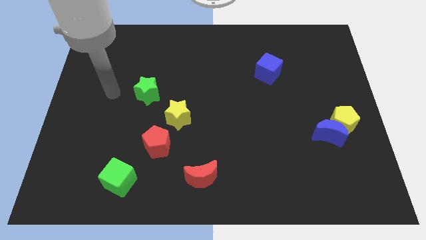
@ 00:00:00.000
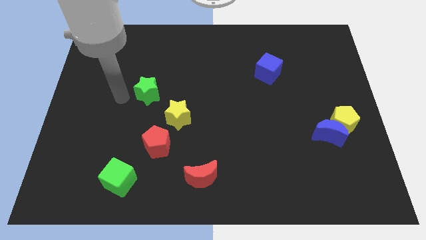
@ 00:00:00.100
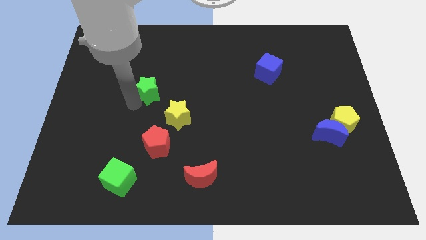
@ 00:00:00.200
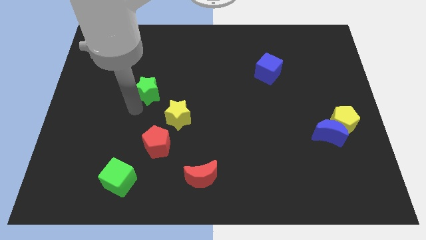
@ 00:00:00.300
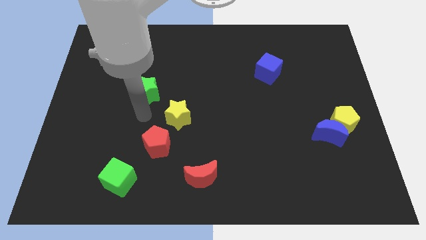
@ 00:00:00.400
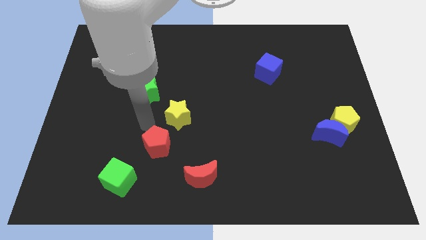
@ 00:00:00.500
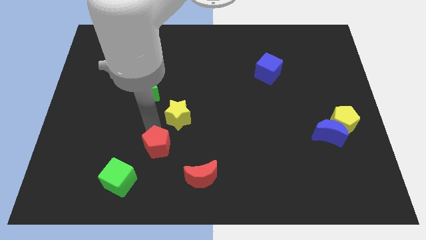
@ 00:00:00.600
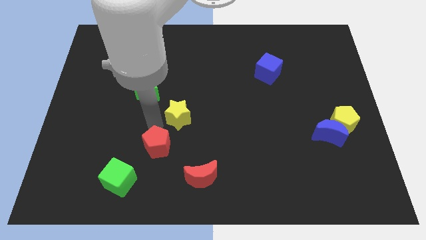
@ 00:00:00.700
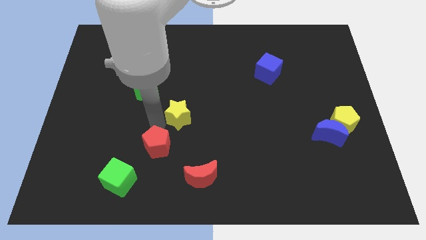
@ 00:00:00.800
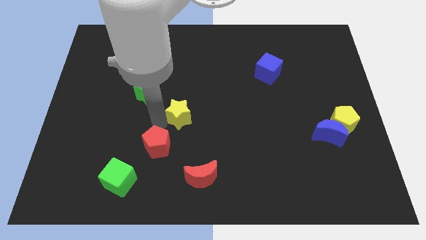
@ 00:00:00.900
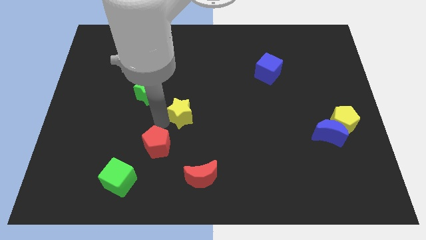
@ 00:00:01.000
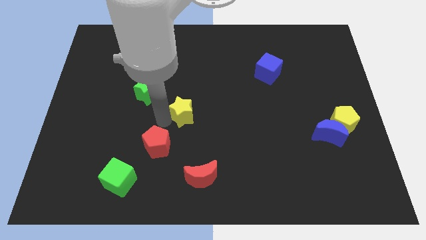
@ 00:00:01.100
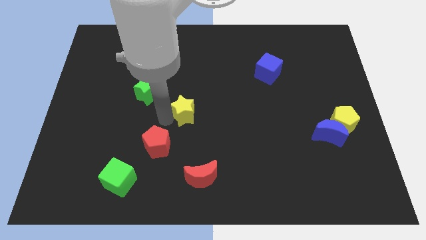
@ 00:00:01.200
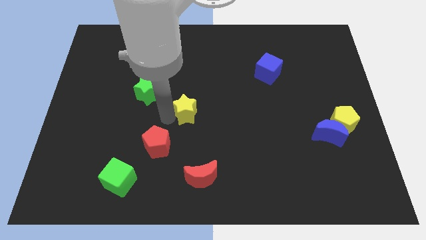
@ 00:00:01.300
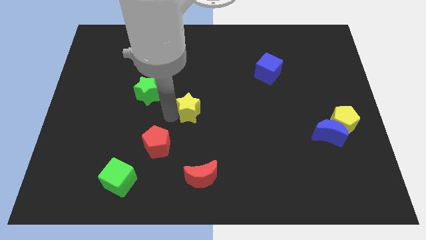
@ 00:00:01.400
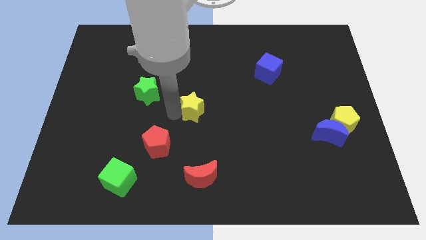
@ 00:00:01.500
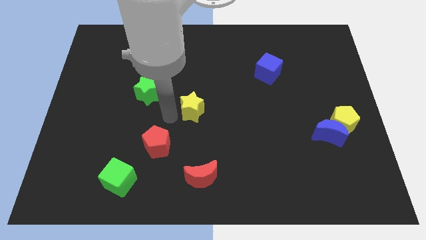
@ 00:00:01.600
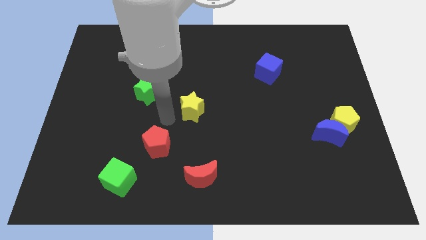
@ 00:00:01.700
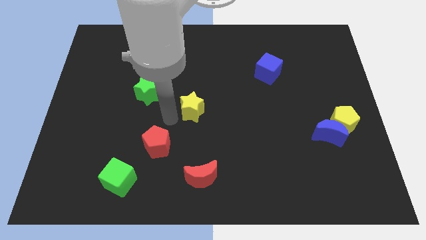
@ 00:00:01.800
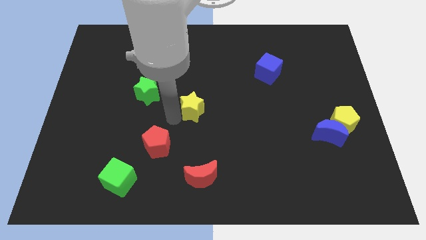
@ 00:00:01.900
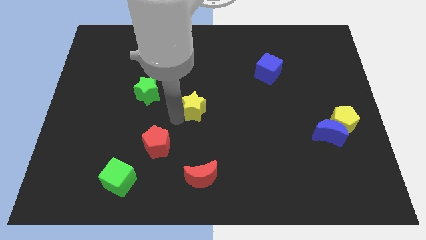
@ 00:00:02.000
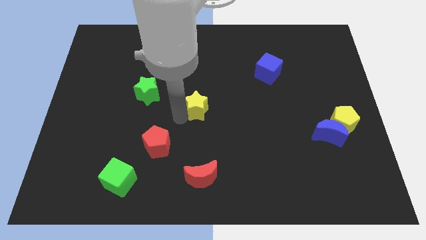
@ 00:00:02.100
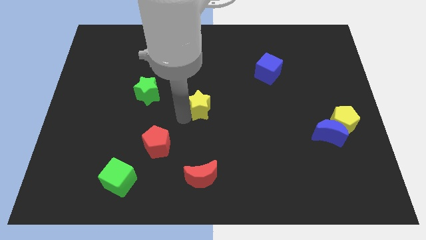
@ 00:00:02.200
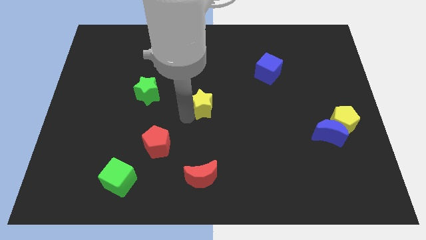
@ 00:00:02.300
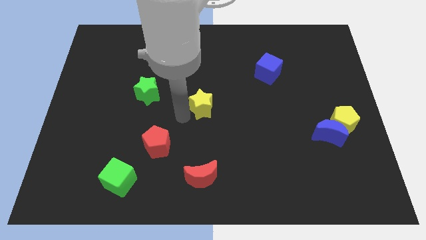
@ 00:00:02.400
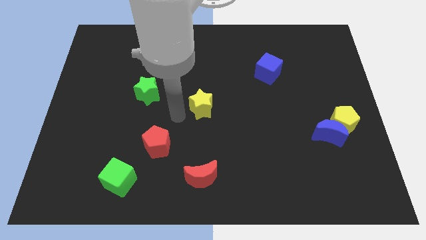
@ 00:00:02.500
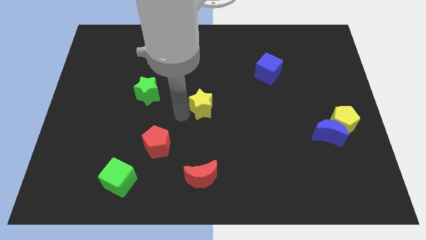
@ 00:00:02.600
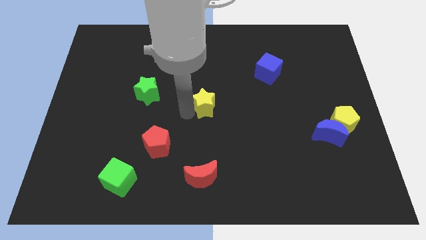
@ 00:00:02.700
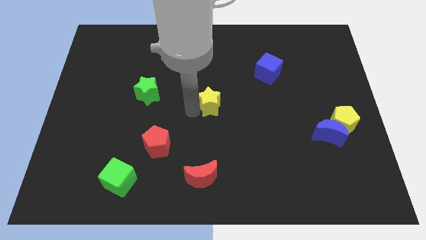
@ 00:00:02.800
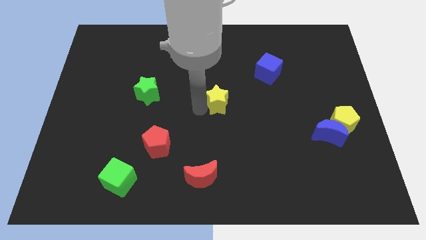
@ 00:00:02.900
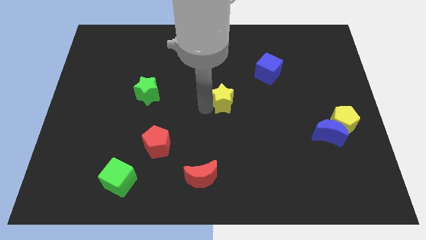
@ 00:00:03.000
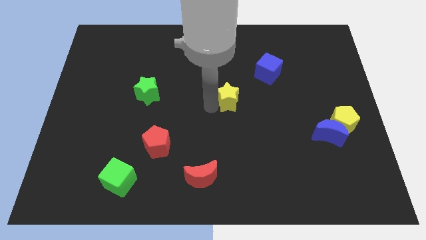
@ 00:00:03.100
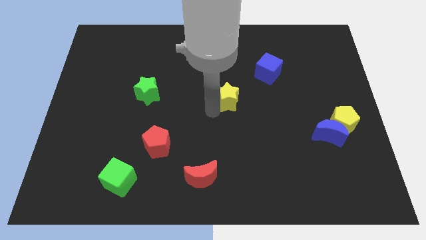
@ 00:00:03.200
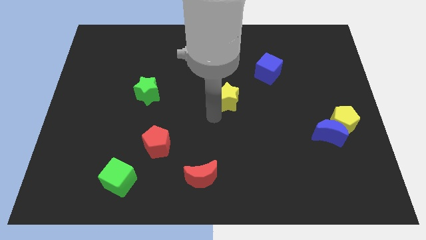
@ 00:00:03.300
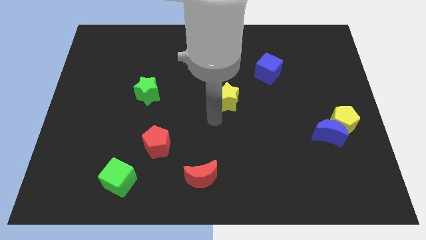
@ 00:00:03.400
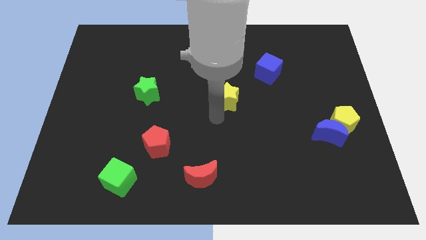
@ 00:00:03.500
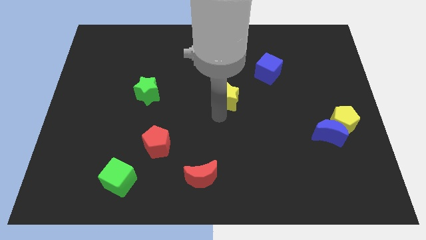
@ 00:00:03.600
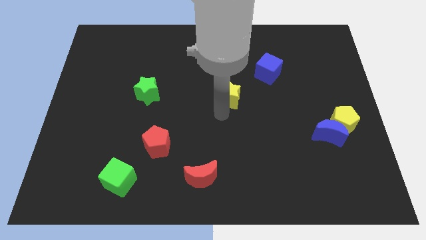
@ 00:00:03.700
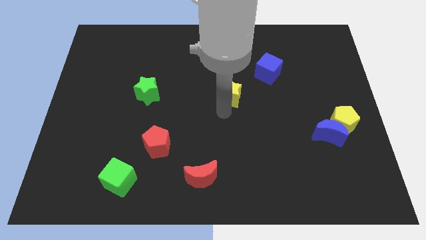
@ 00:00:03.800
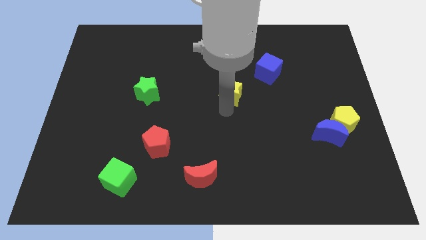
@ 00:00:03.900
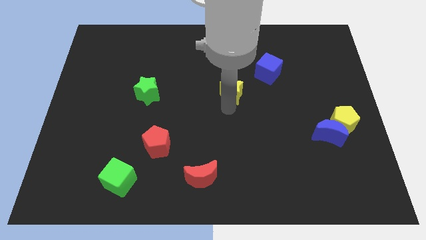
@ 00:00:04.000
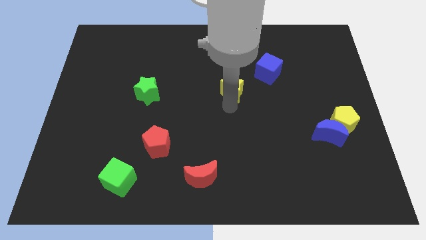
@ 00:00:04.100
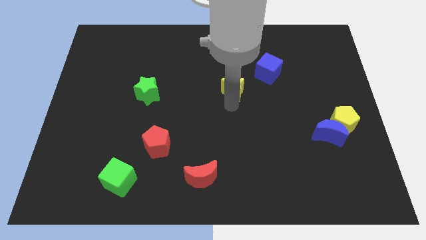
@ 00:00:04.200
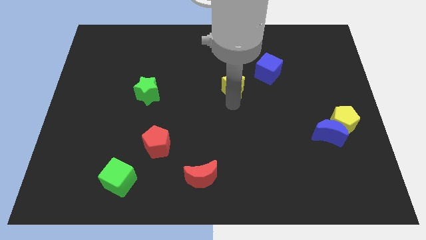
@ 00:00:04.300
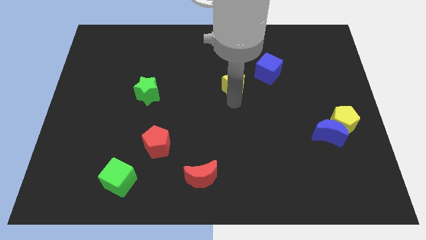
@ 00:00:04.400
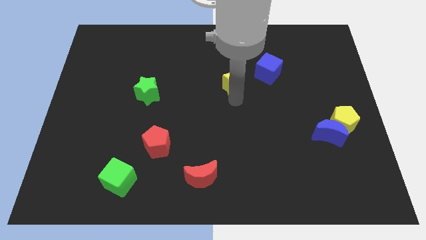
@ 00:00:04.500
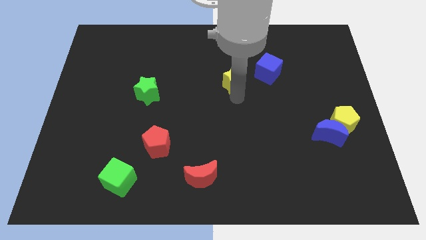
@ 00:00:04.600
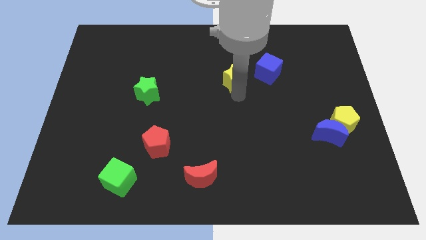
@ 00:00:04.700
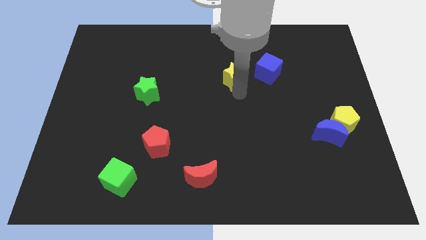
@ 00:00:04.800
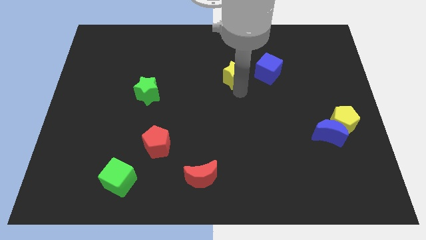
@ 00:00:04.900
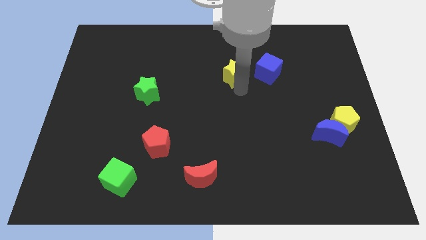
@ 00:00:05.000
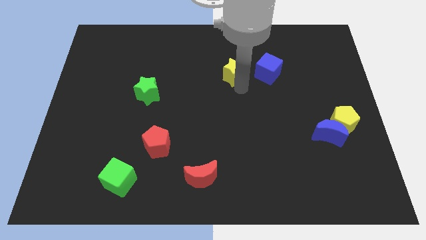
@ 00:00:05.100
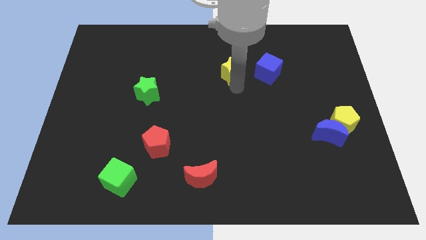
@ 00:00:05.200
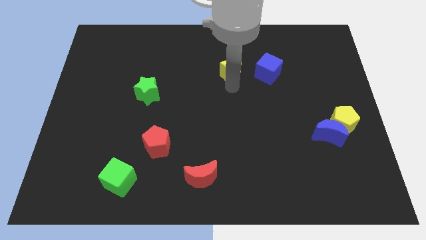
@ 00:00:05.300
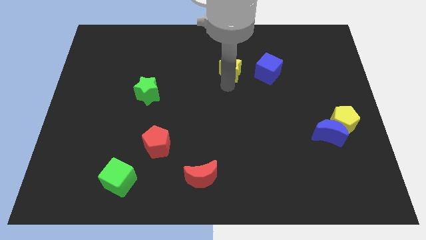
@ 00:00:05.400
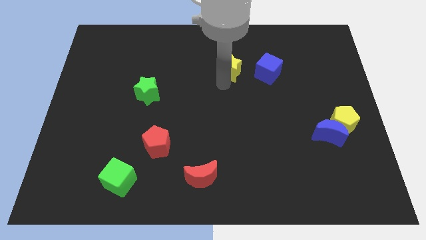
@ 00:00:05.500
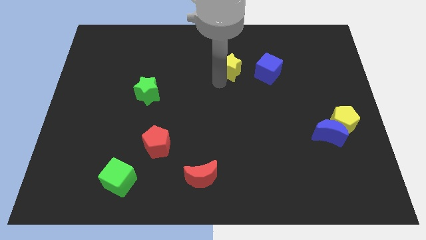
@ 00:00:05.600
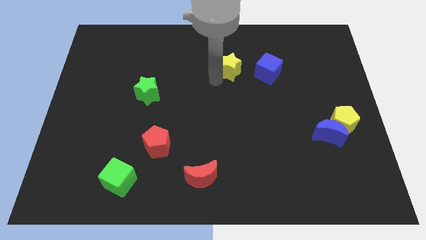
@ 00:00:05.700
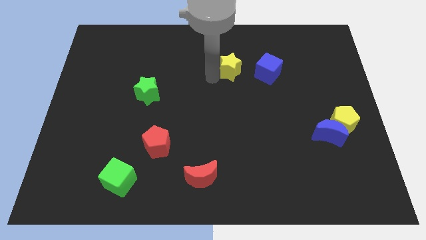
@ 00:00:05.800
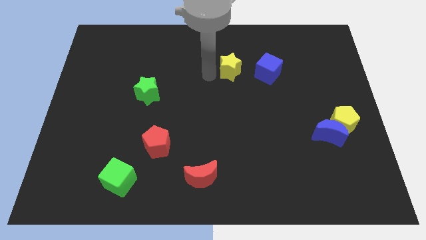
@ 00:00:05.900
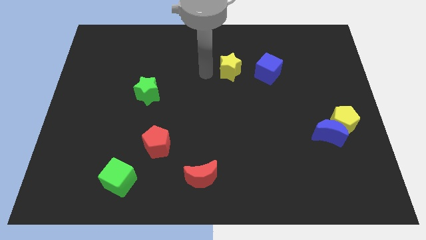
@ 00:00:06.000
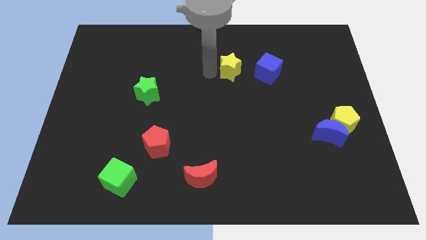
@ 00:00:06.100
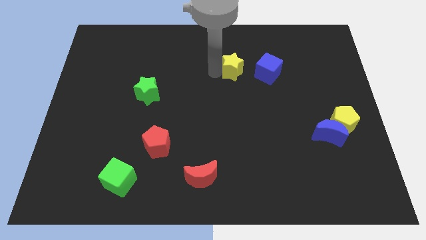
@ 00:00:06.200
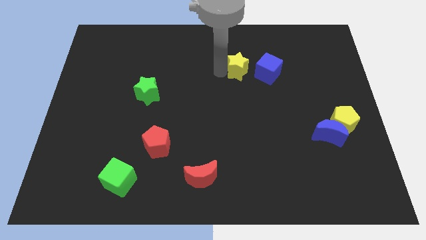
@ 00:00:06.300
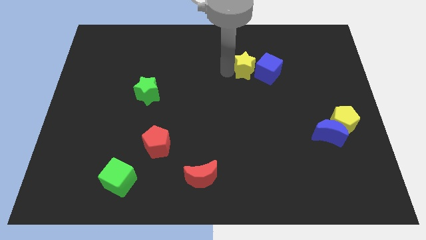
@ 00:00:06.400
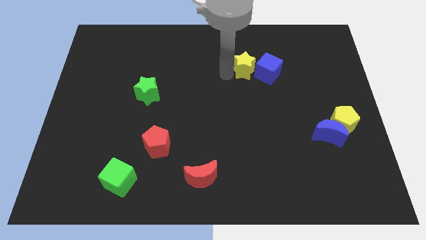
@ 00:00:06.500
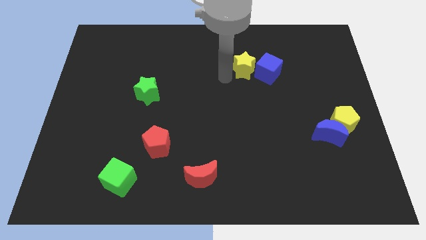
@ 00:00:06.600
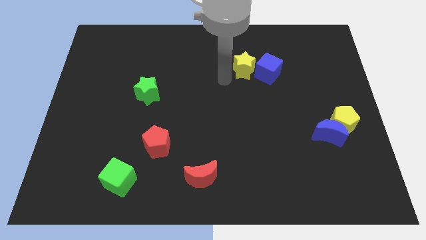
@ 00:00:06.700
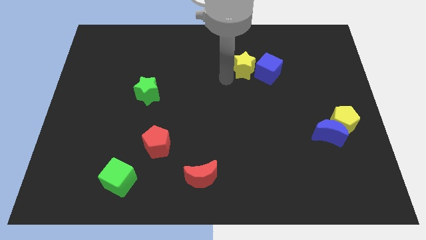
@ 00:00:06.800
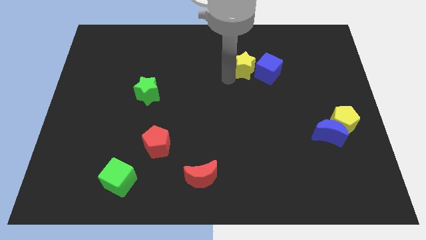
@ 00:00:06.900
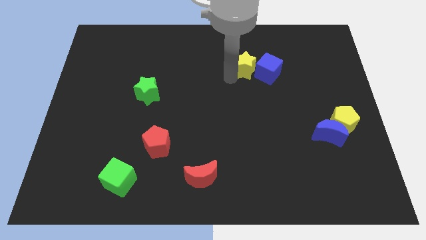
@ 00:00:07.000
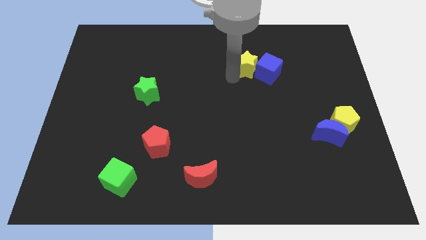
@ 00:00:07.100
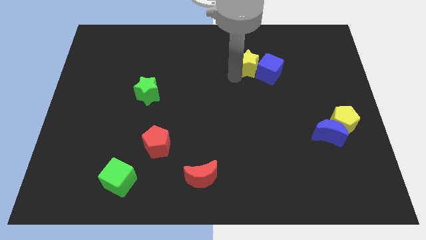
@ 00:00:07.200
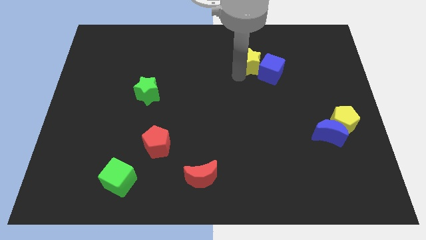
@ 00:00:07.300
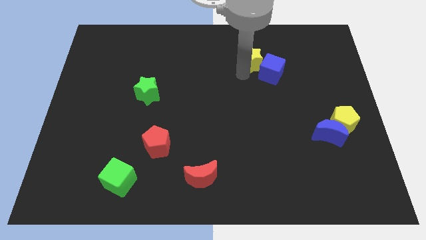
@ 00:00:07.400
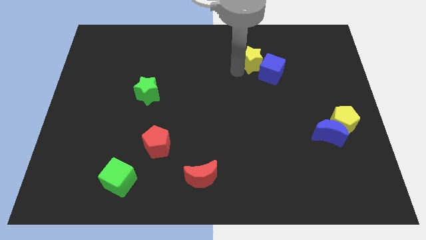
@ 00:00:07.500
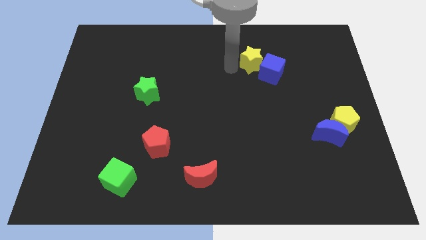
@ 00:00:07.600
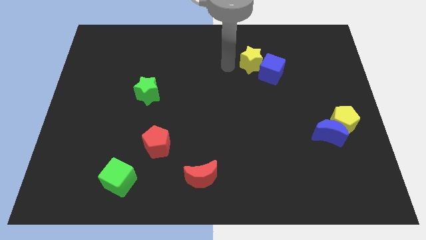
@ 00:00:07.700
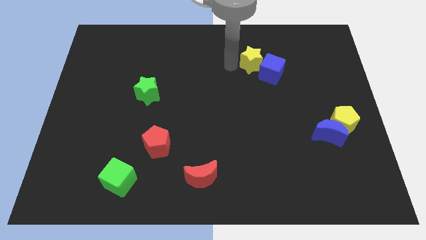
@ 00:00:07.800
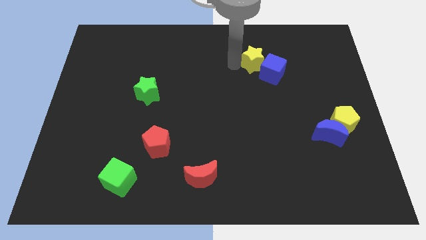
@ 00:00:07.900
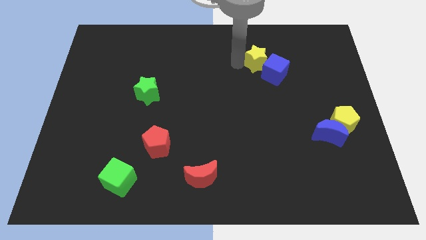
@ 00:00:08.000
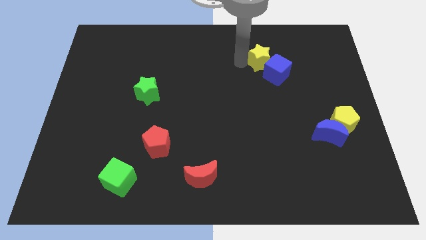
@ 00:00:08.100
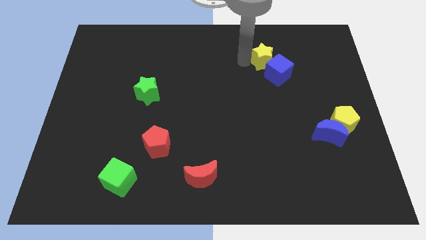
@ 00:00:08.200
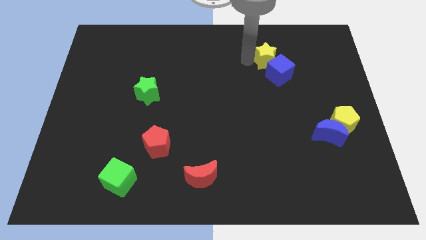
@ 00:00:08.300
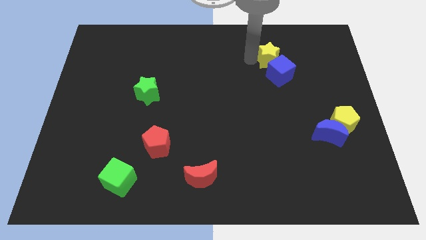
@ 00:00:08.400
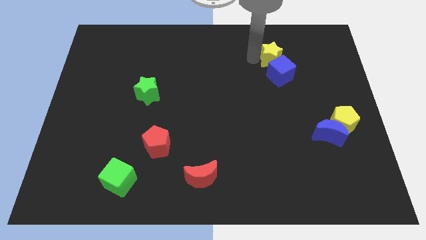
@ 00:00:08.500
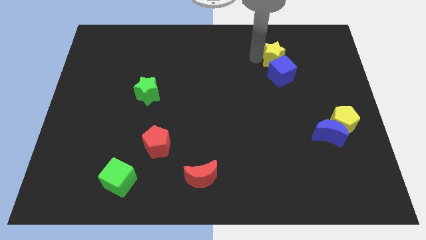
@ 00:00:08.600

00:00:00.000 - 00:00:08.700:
put the yellow star diagonally up and to the right of the blue cube
